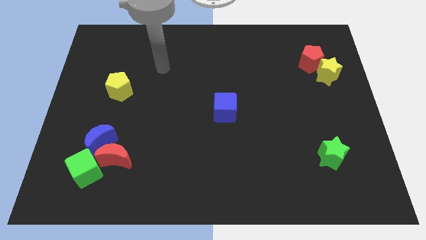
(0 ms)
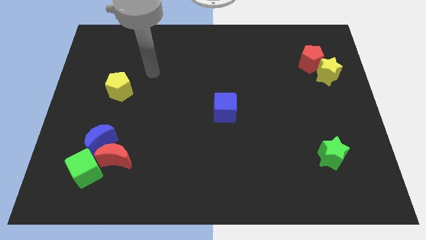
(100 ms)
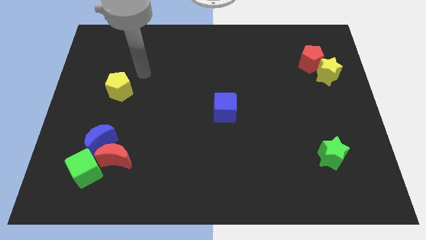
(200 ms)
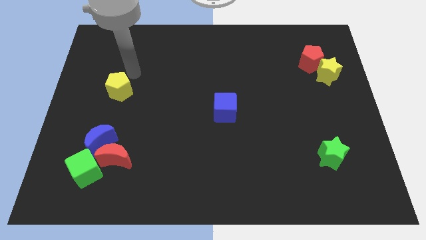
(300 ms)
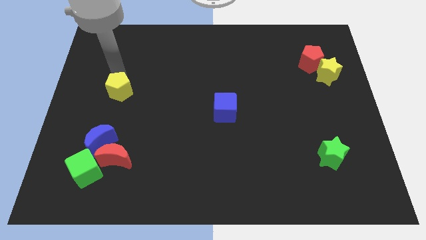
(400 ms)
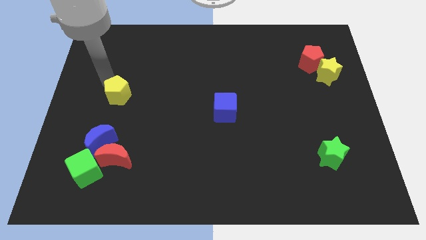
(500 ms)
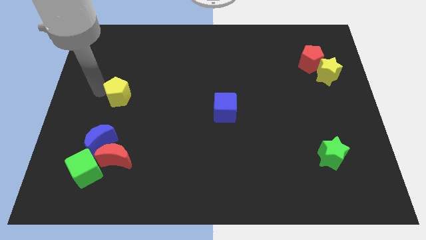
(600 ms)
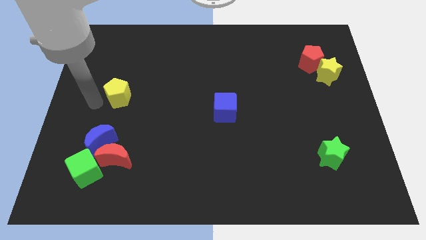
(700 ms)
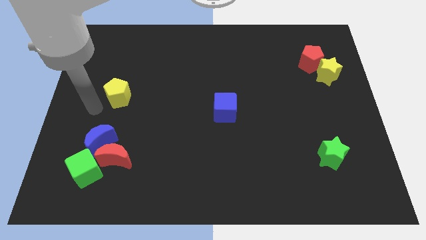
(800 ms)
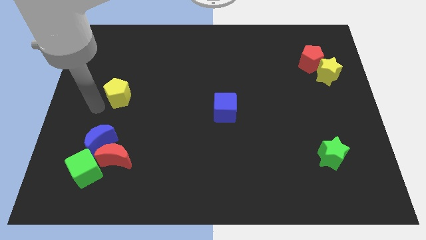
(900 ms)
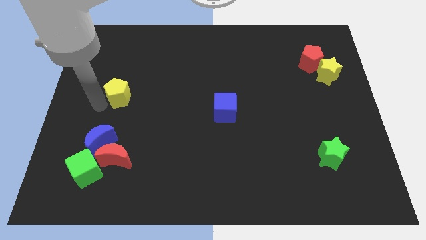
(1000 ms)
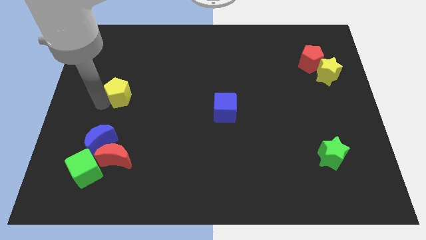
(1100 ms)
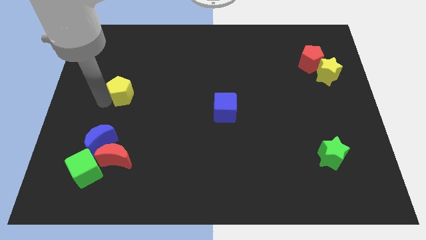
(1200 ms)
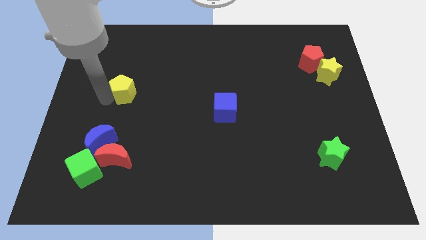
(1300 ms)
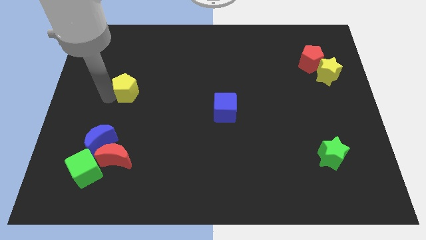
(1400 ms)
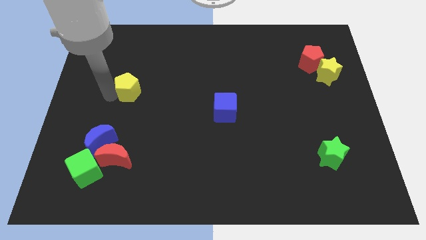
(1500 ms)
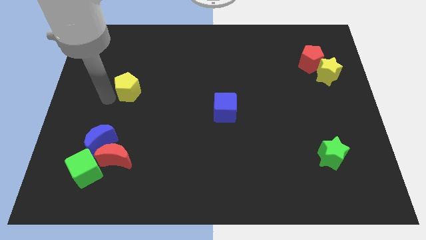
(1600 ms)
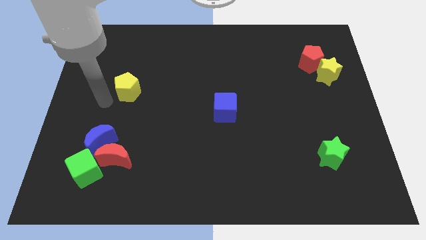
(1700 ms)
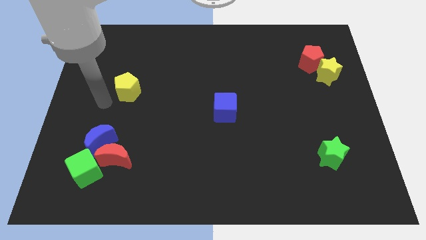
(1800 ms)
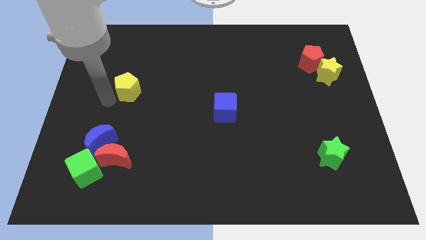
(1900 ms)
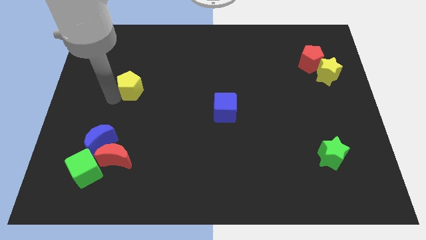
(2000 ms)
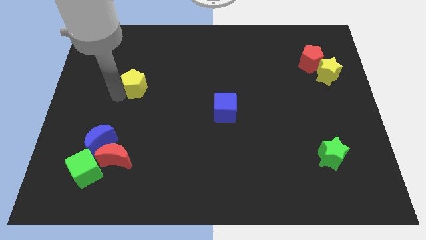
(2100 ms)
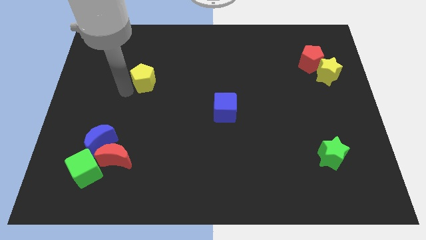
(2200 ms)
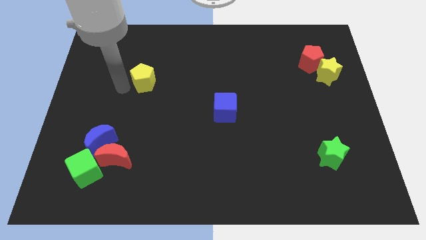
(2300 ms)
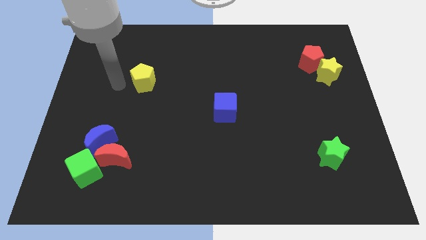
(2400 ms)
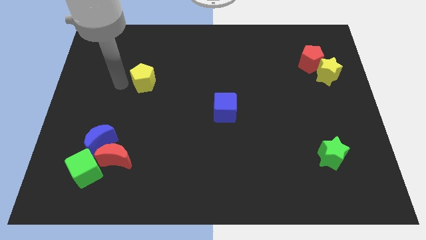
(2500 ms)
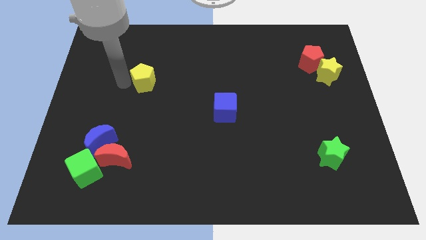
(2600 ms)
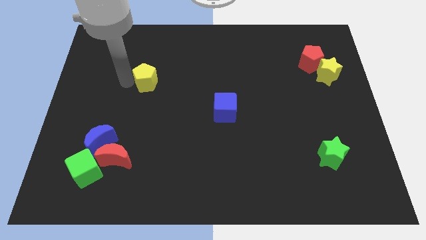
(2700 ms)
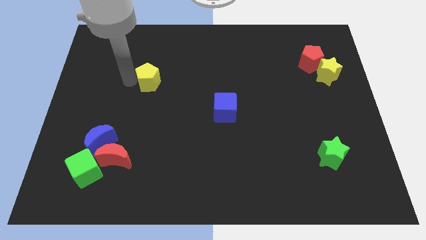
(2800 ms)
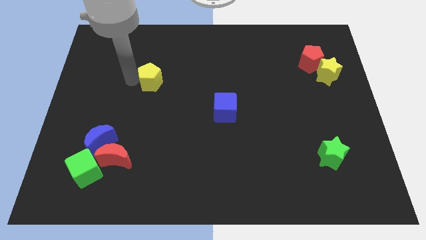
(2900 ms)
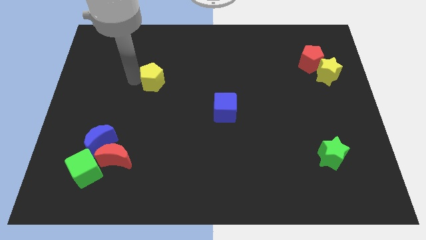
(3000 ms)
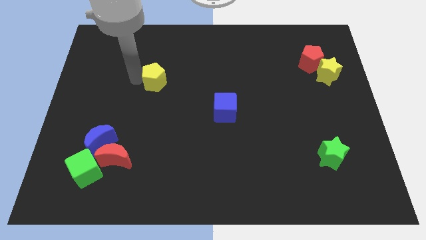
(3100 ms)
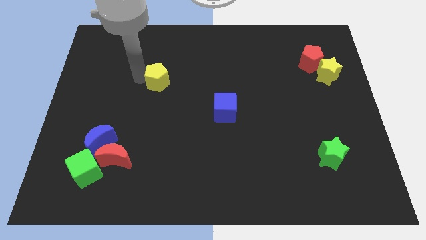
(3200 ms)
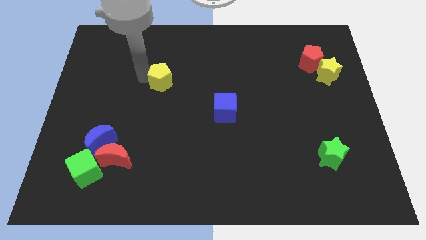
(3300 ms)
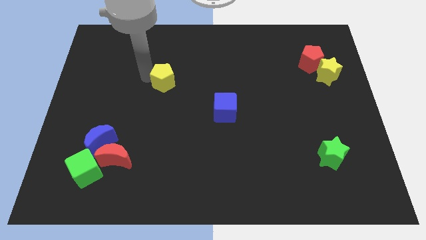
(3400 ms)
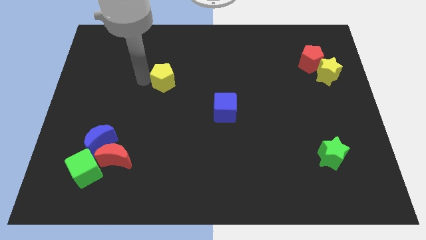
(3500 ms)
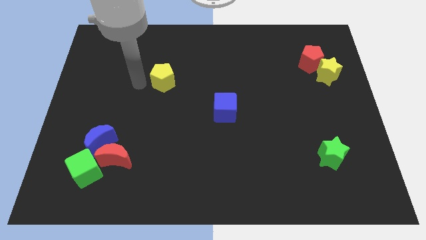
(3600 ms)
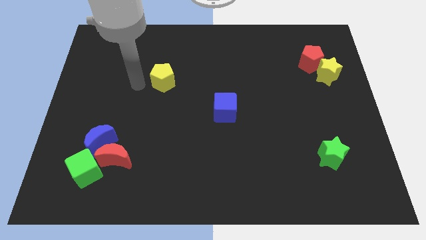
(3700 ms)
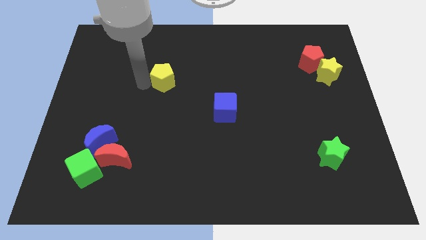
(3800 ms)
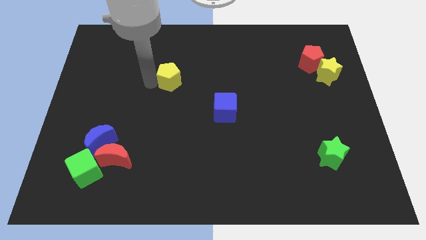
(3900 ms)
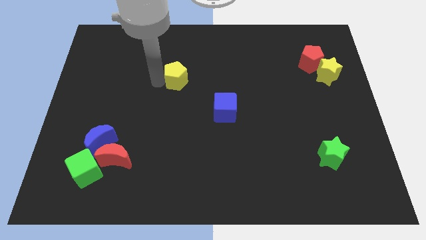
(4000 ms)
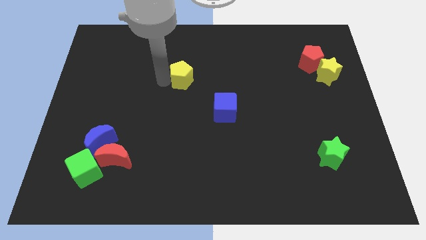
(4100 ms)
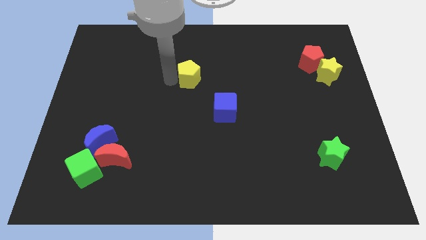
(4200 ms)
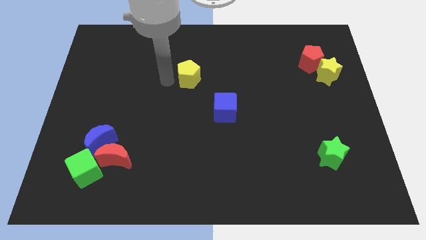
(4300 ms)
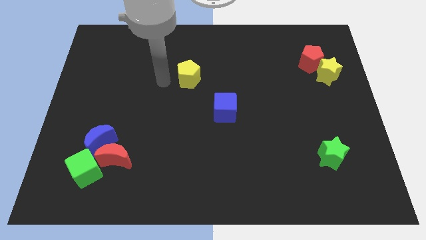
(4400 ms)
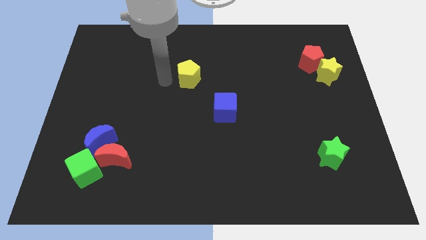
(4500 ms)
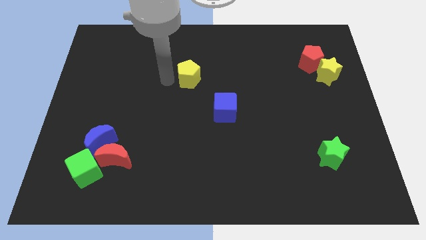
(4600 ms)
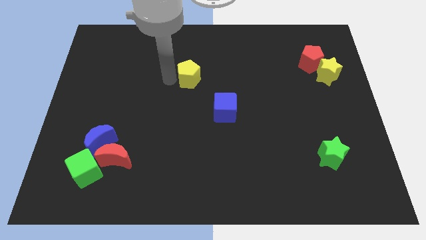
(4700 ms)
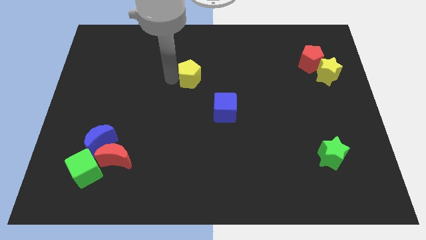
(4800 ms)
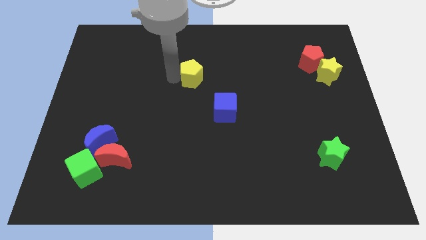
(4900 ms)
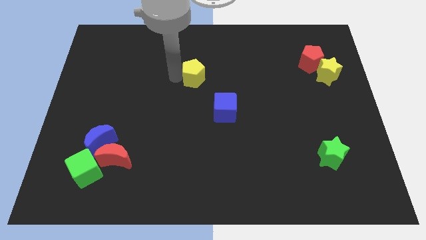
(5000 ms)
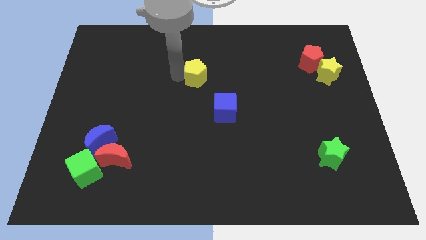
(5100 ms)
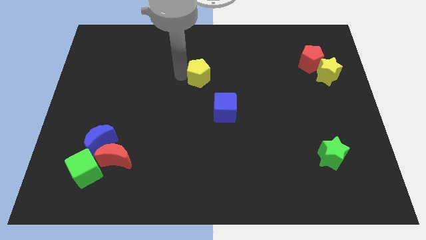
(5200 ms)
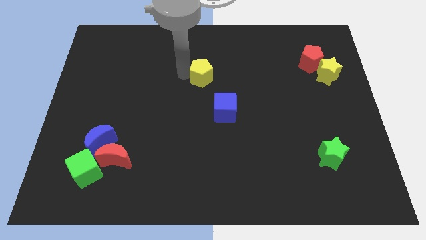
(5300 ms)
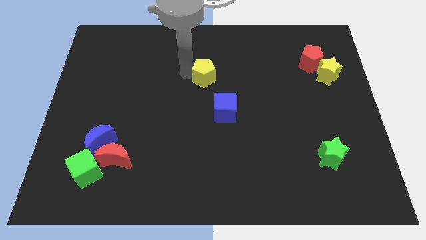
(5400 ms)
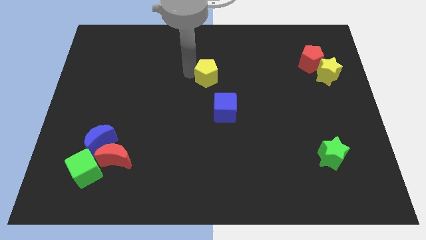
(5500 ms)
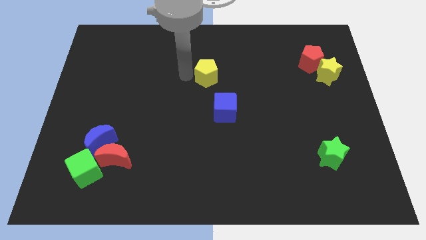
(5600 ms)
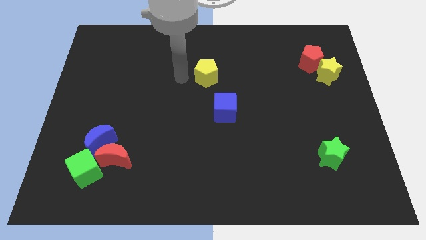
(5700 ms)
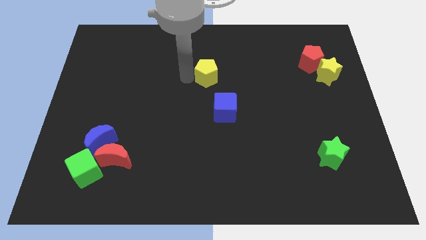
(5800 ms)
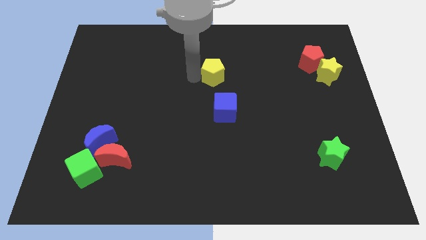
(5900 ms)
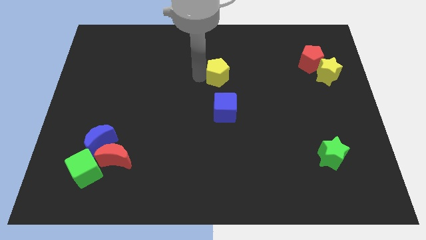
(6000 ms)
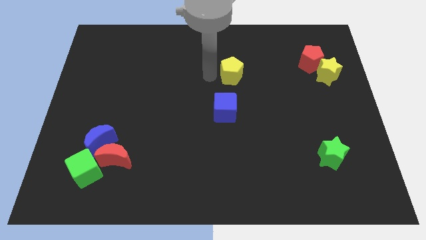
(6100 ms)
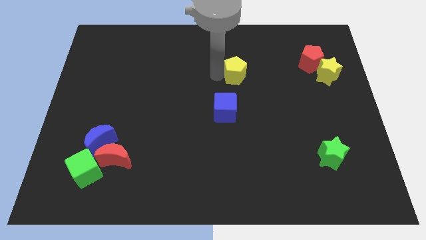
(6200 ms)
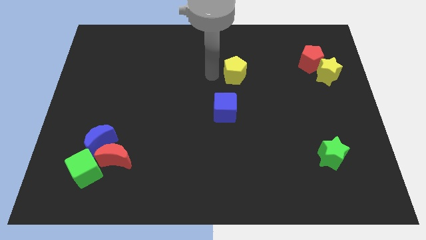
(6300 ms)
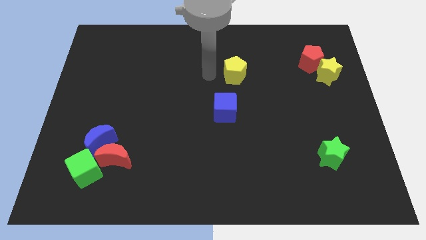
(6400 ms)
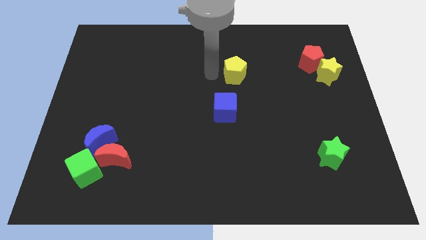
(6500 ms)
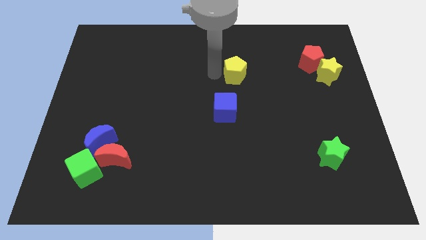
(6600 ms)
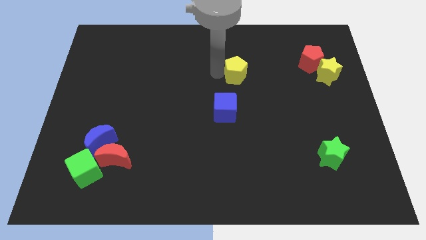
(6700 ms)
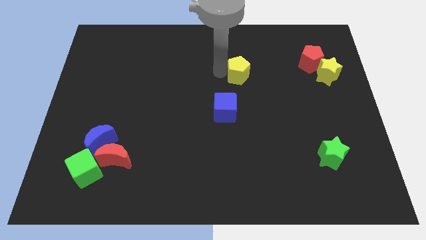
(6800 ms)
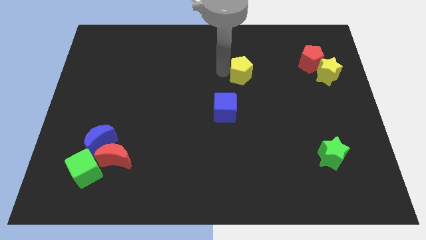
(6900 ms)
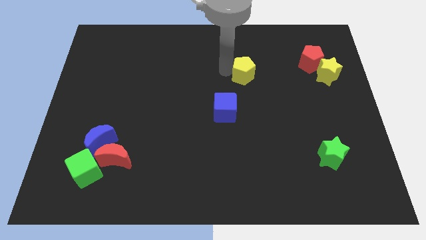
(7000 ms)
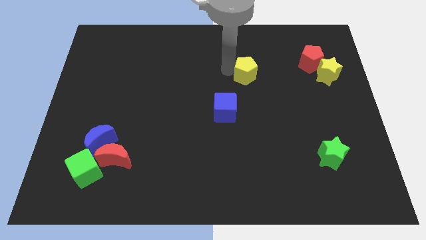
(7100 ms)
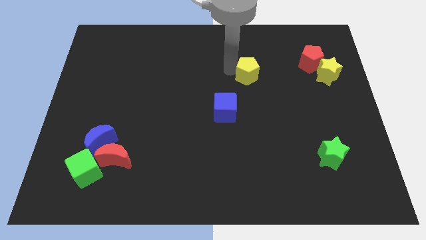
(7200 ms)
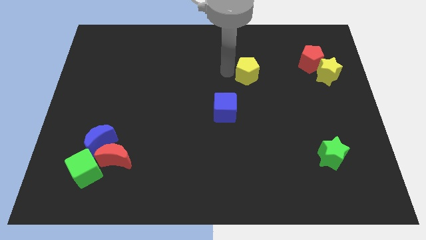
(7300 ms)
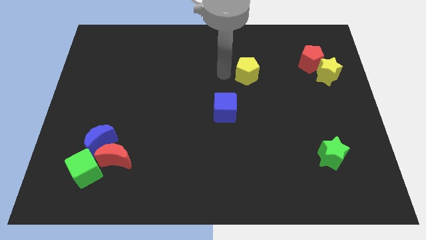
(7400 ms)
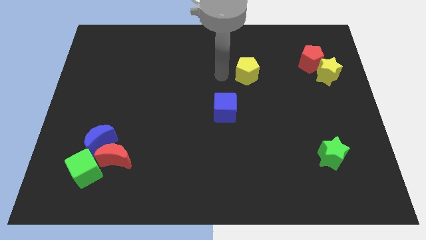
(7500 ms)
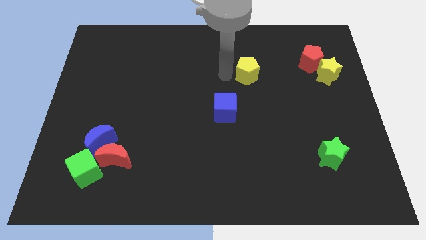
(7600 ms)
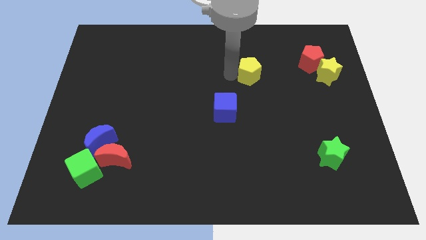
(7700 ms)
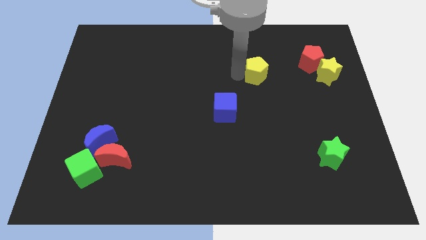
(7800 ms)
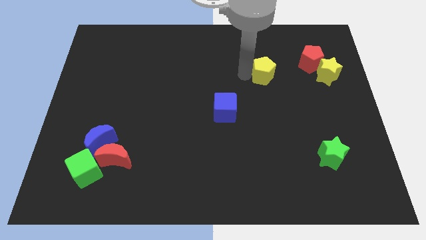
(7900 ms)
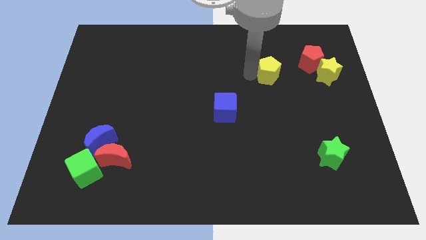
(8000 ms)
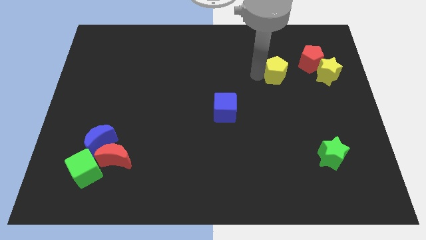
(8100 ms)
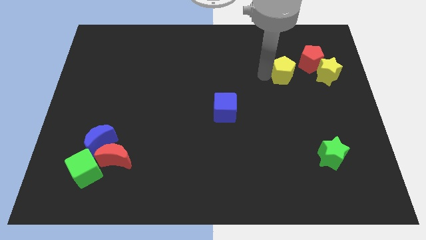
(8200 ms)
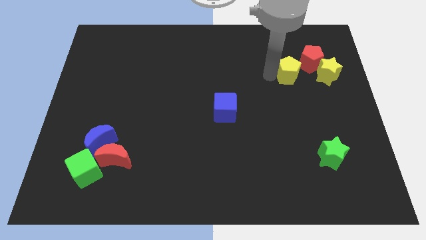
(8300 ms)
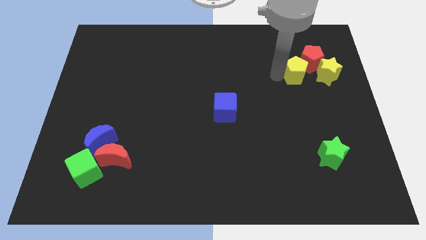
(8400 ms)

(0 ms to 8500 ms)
put the yellow pentagon to the red pentagon
